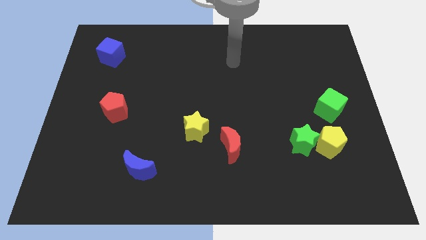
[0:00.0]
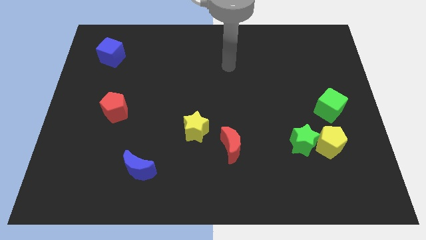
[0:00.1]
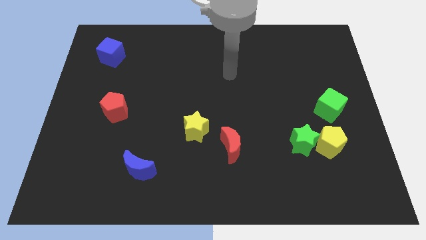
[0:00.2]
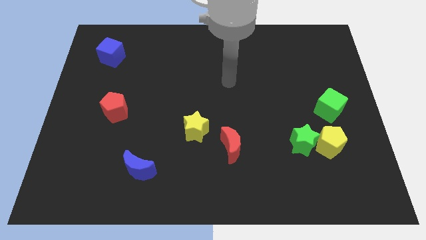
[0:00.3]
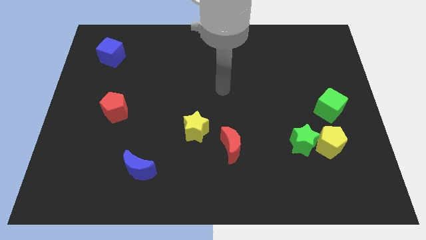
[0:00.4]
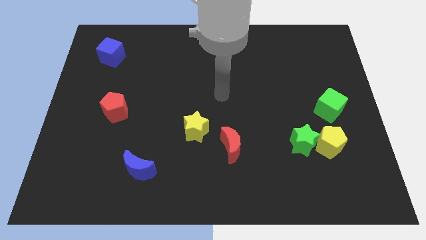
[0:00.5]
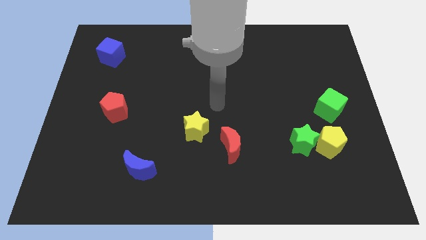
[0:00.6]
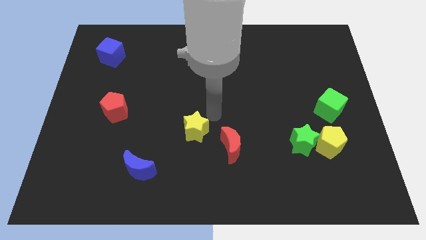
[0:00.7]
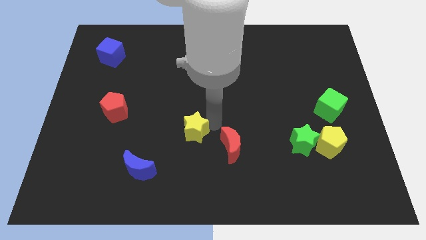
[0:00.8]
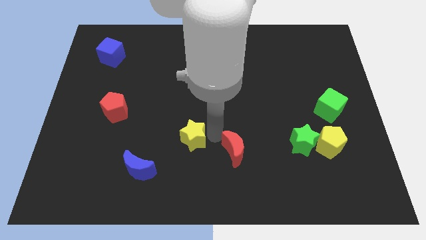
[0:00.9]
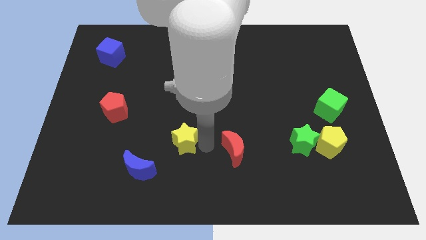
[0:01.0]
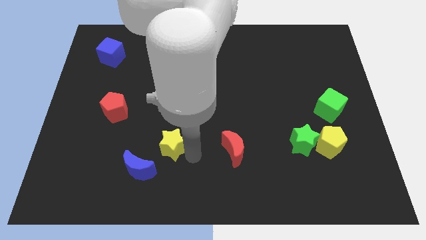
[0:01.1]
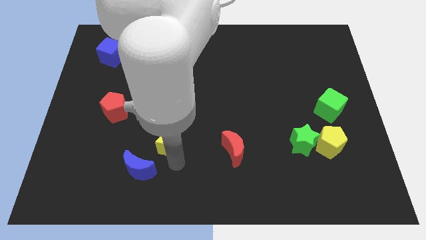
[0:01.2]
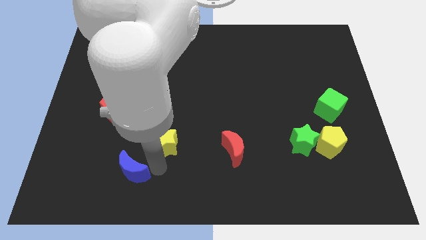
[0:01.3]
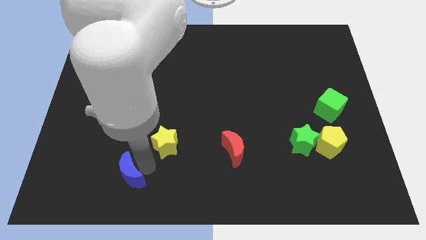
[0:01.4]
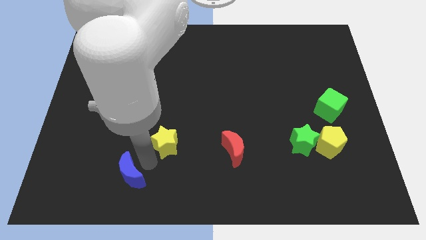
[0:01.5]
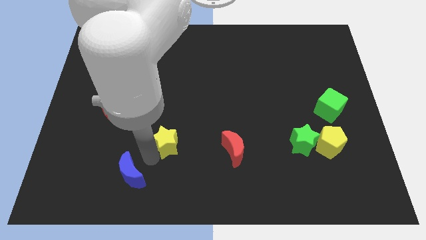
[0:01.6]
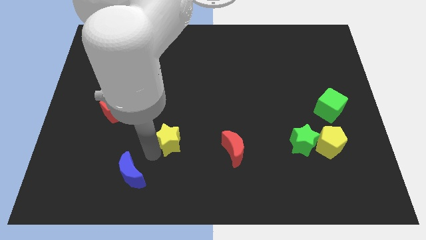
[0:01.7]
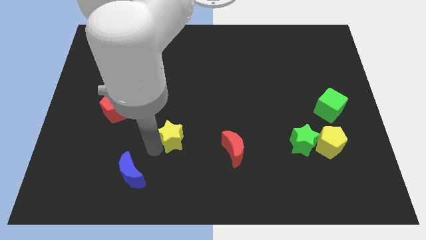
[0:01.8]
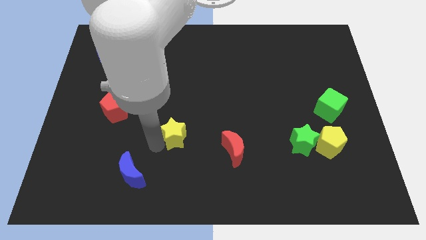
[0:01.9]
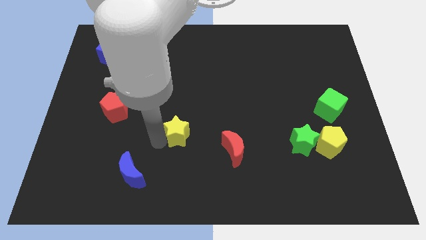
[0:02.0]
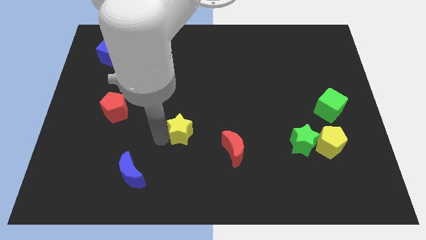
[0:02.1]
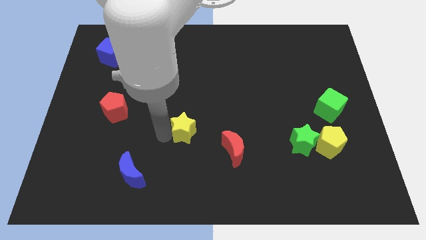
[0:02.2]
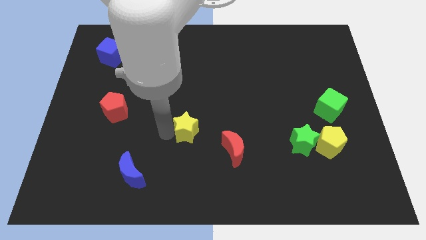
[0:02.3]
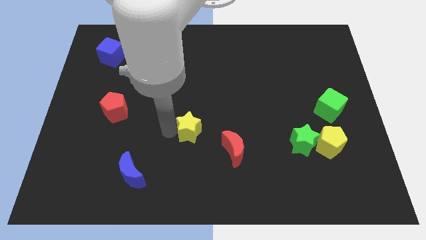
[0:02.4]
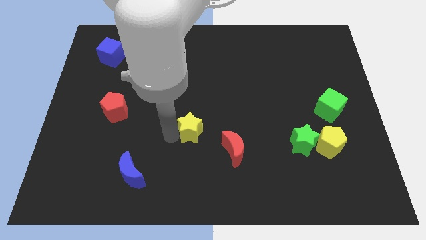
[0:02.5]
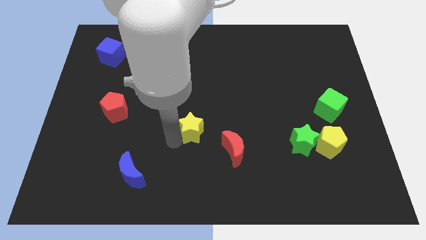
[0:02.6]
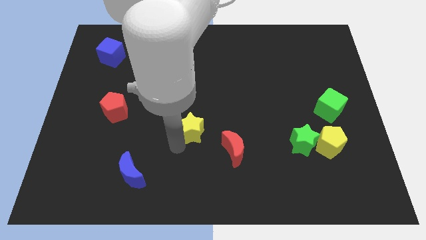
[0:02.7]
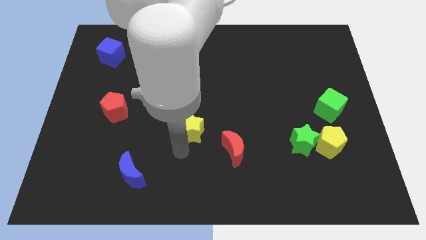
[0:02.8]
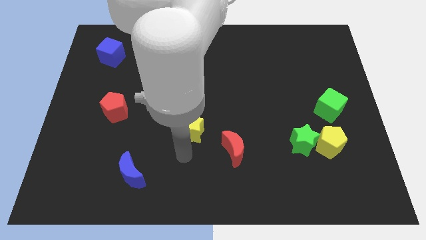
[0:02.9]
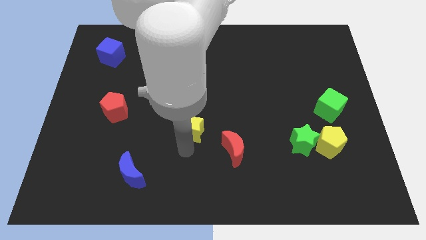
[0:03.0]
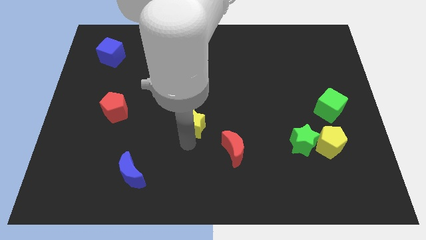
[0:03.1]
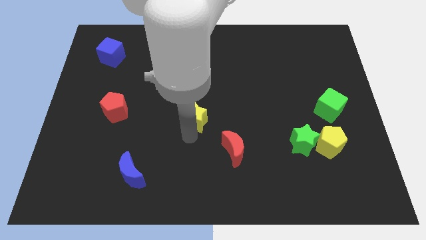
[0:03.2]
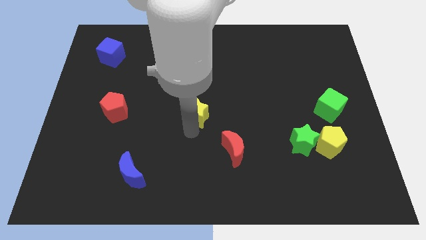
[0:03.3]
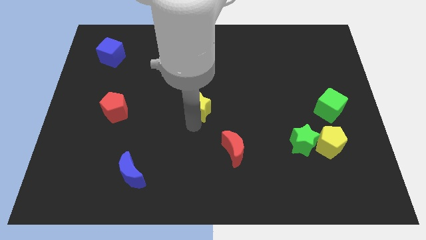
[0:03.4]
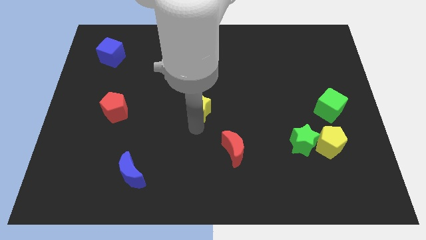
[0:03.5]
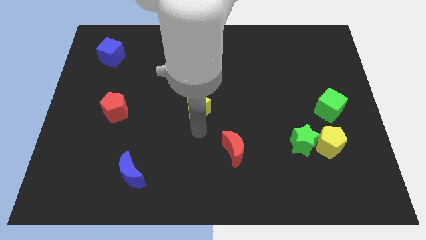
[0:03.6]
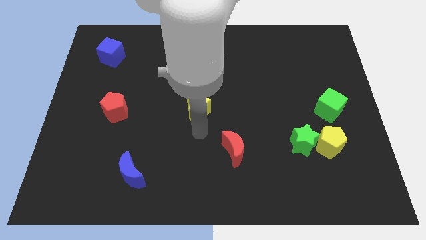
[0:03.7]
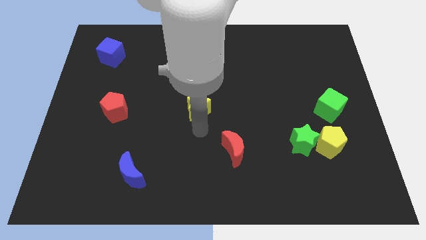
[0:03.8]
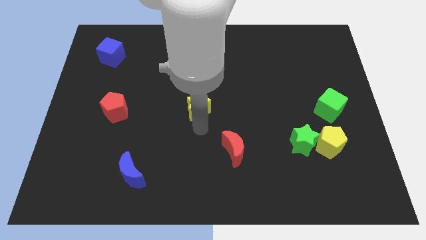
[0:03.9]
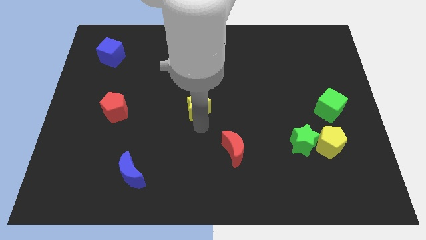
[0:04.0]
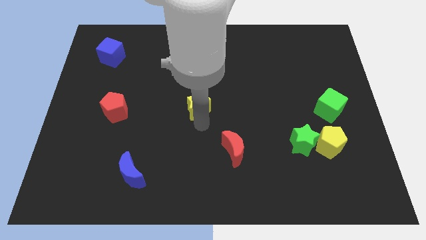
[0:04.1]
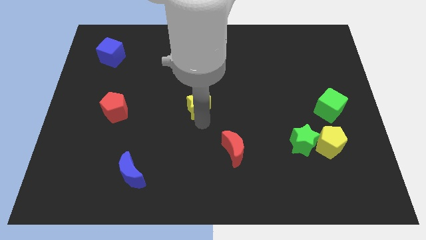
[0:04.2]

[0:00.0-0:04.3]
slide the yellow star a little upwards

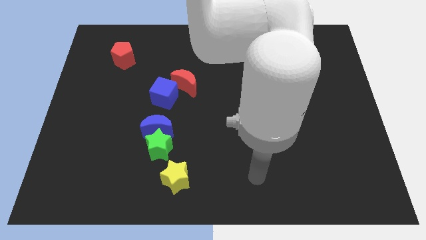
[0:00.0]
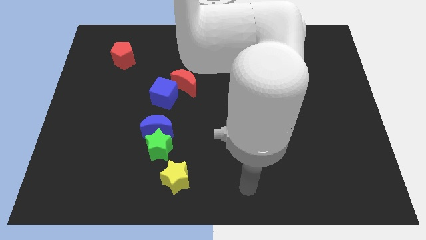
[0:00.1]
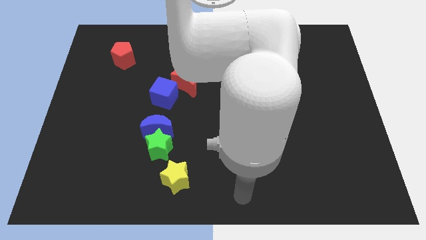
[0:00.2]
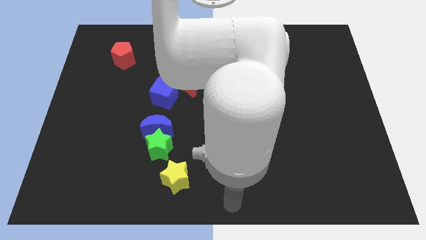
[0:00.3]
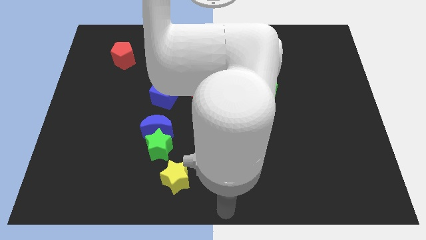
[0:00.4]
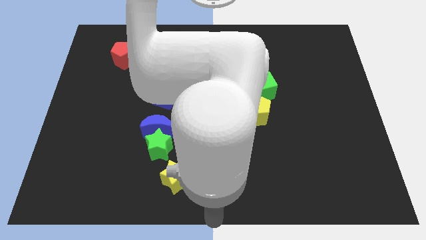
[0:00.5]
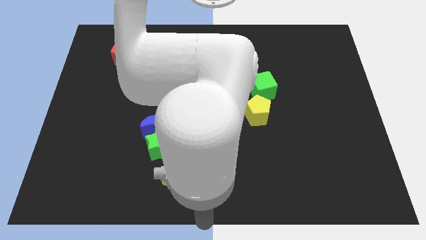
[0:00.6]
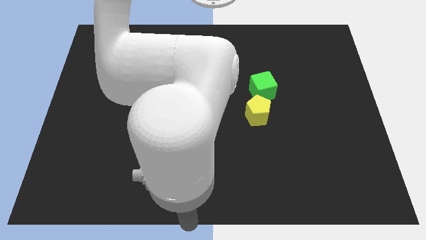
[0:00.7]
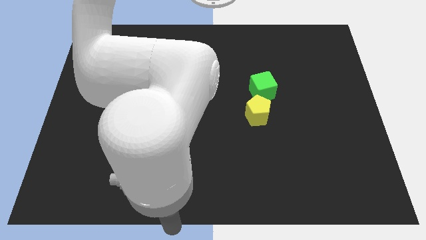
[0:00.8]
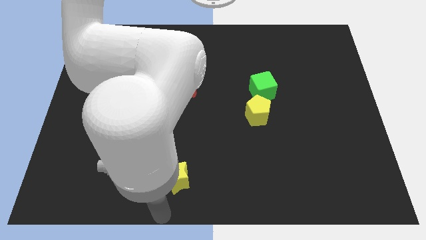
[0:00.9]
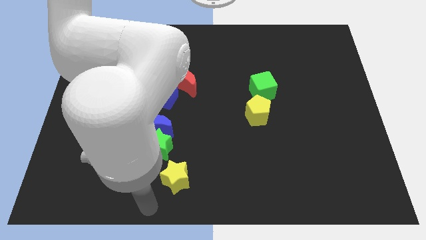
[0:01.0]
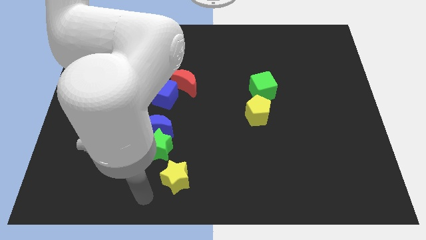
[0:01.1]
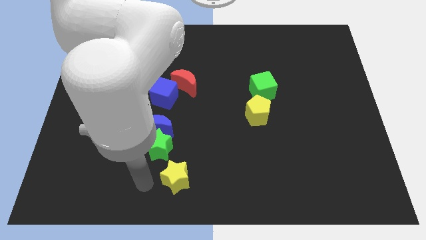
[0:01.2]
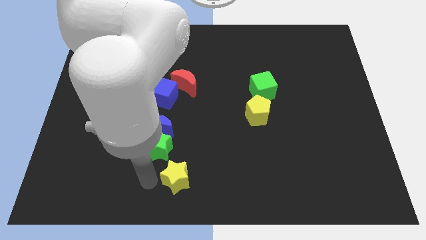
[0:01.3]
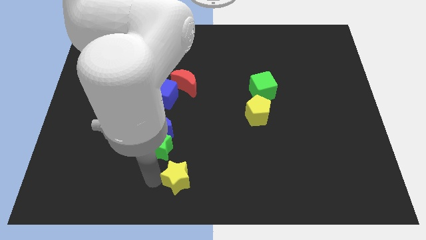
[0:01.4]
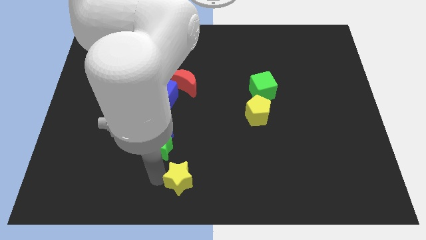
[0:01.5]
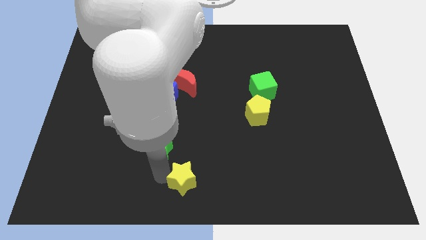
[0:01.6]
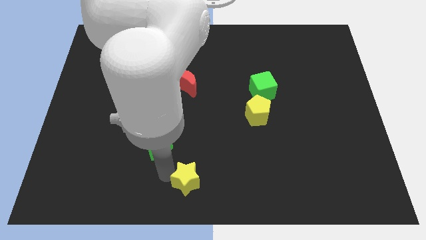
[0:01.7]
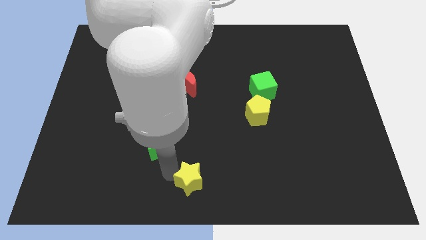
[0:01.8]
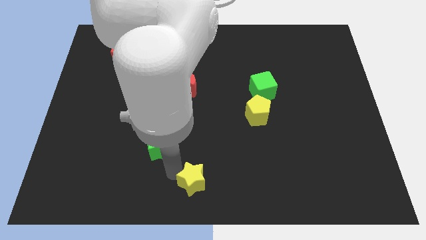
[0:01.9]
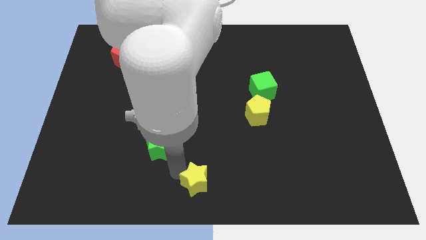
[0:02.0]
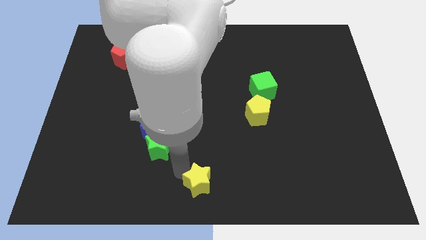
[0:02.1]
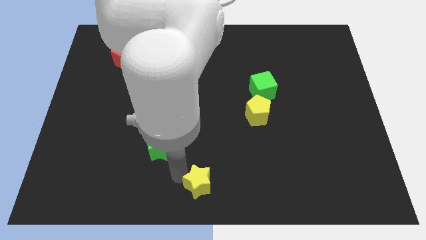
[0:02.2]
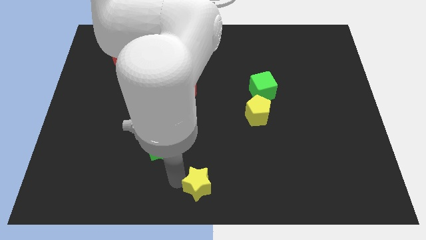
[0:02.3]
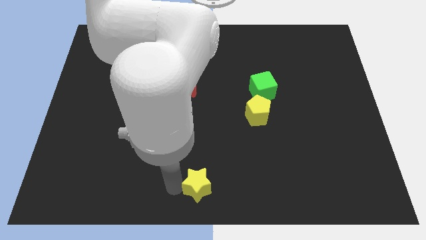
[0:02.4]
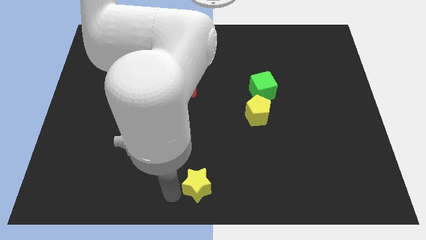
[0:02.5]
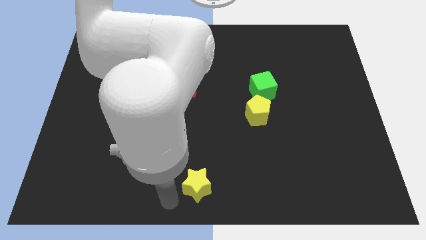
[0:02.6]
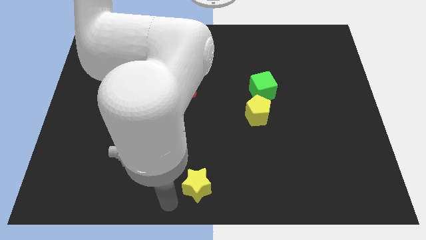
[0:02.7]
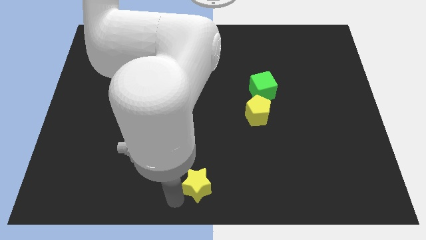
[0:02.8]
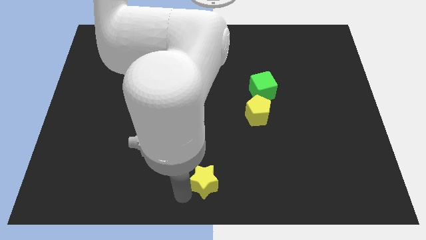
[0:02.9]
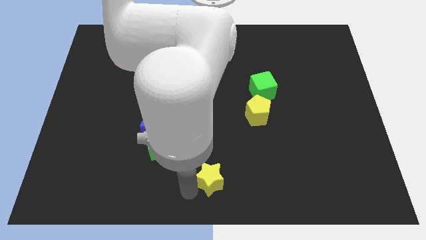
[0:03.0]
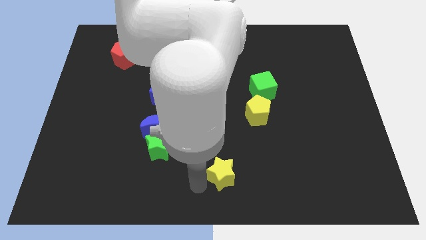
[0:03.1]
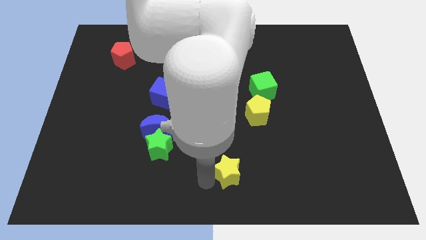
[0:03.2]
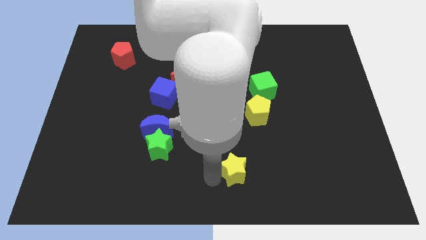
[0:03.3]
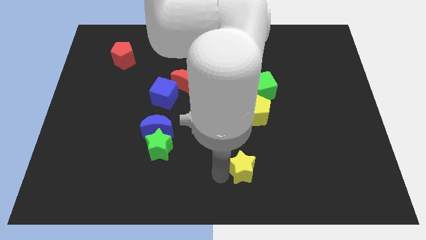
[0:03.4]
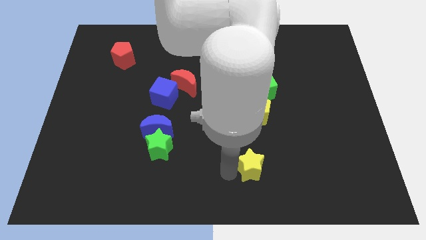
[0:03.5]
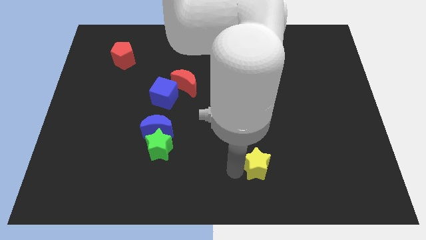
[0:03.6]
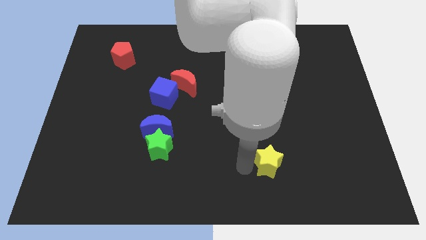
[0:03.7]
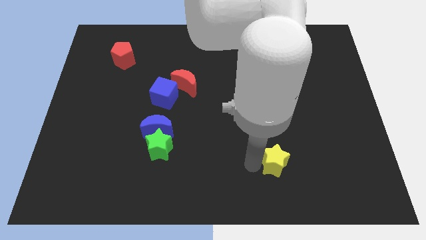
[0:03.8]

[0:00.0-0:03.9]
push the yellow star to the right

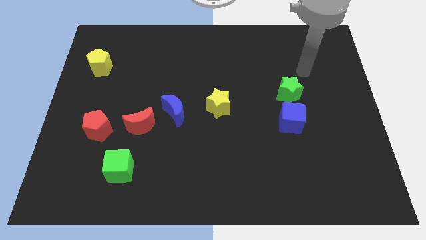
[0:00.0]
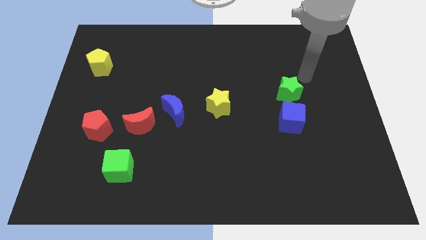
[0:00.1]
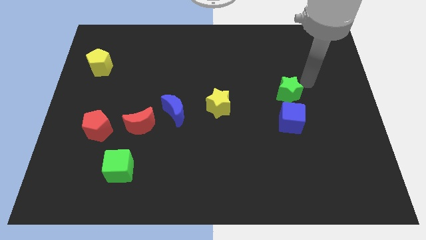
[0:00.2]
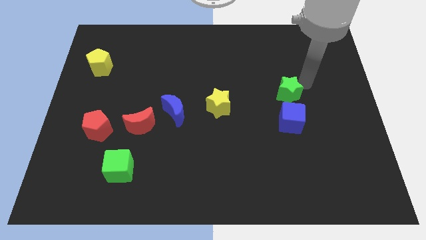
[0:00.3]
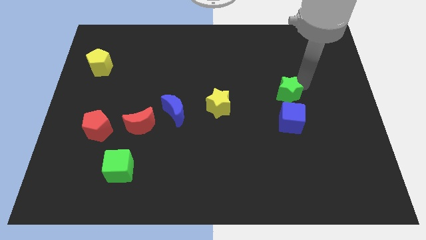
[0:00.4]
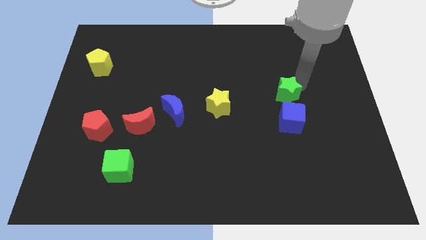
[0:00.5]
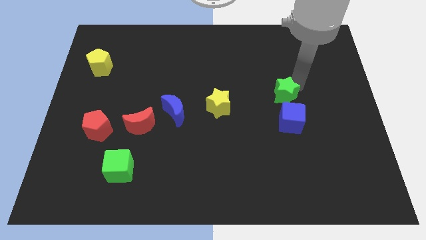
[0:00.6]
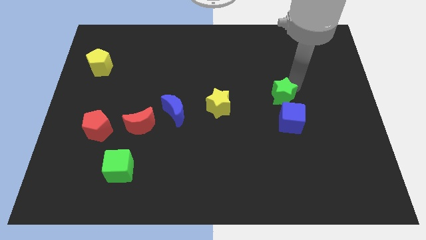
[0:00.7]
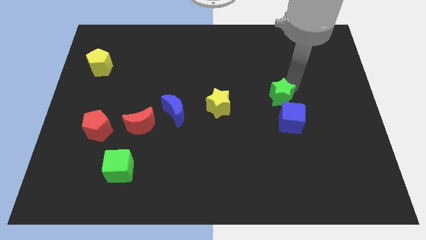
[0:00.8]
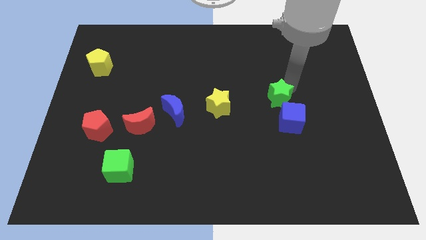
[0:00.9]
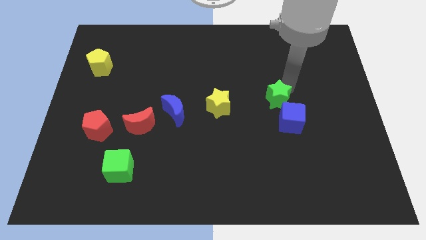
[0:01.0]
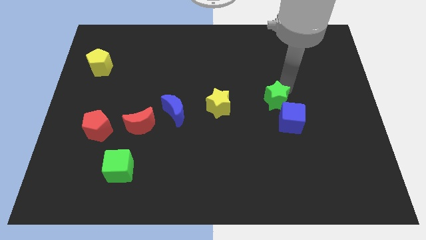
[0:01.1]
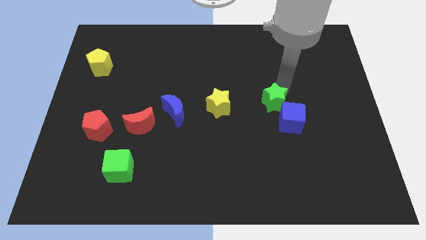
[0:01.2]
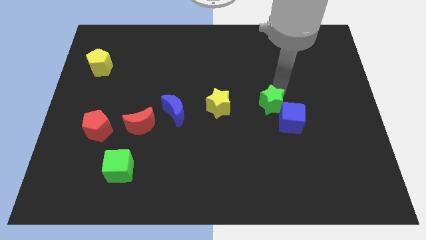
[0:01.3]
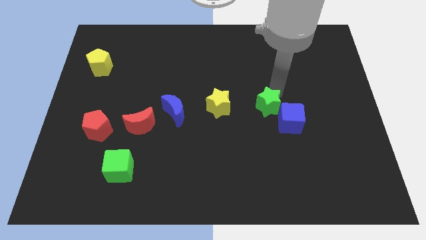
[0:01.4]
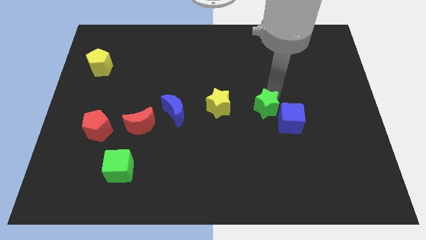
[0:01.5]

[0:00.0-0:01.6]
slightly move the green star diagonally down and to the left
